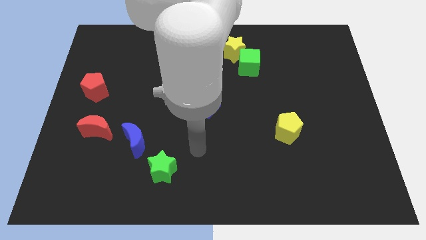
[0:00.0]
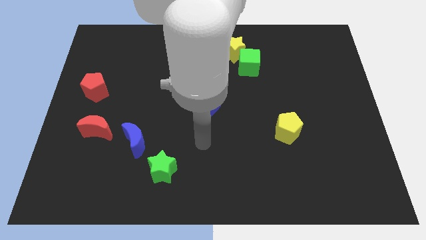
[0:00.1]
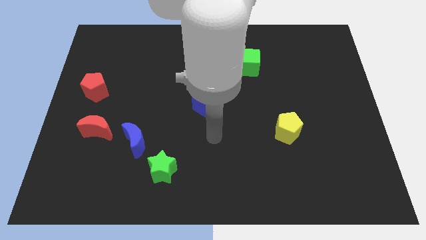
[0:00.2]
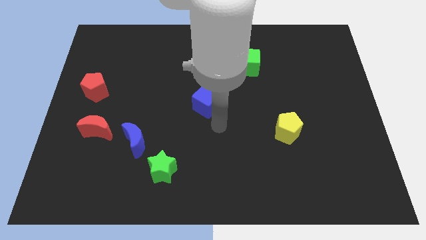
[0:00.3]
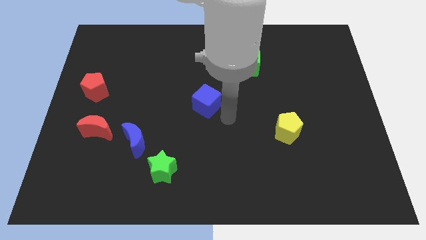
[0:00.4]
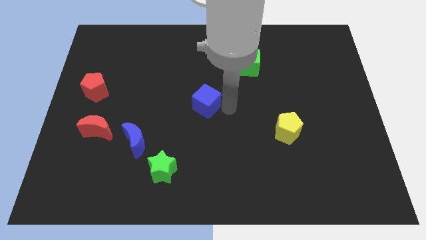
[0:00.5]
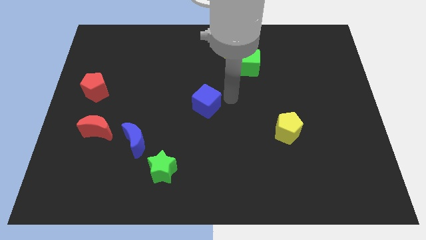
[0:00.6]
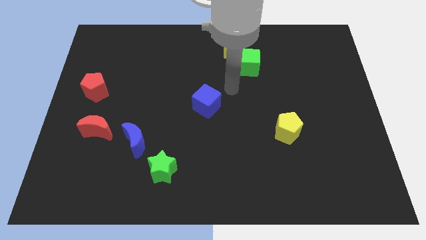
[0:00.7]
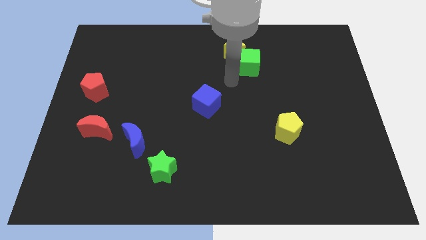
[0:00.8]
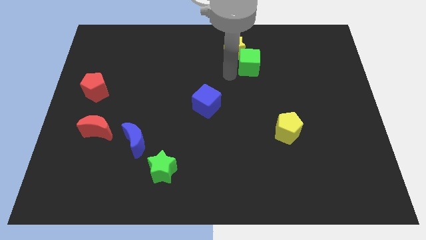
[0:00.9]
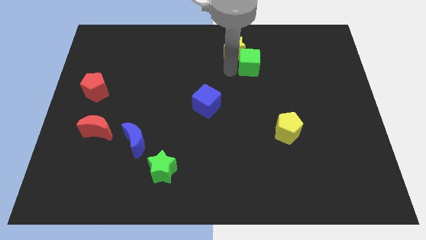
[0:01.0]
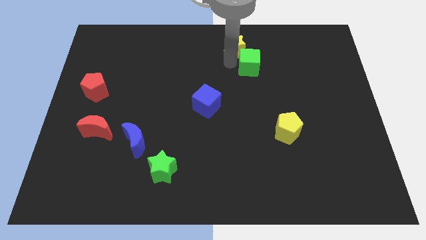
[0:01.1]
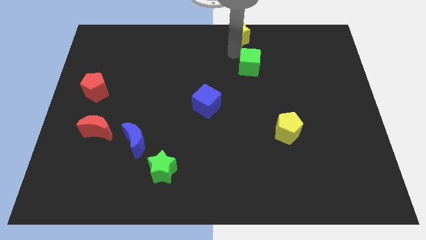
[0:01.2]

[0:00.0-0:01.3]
move the green cube away from the yellow star

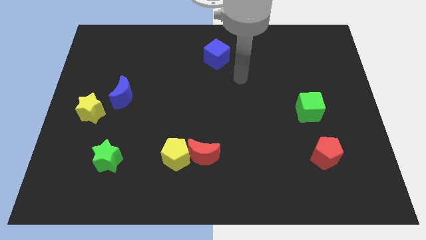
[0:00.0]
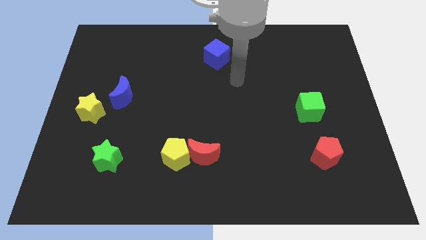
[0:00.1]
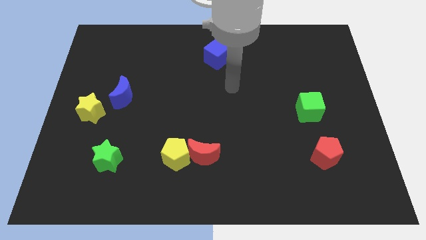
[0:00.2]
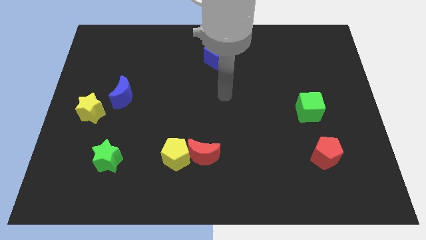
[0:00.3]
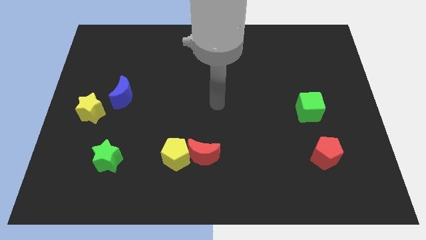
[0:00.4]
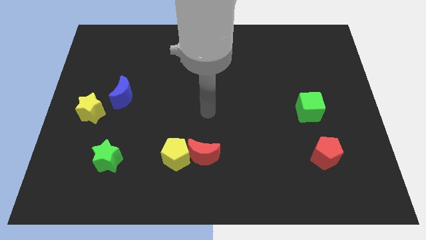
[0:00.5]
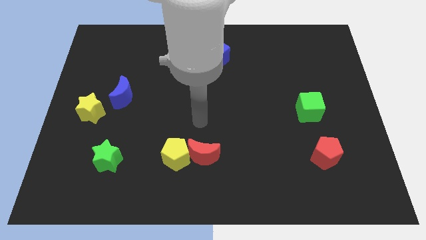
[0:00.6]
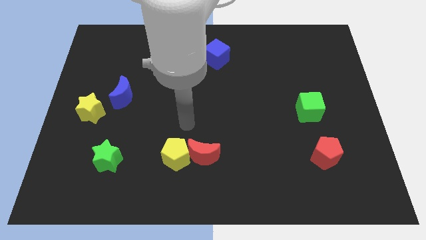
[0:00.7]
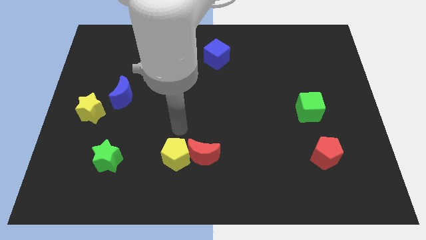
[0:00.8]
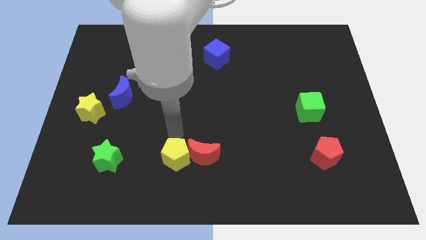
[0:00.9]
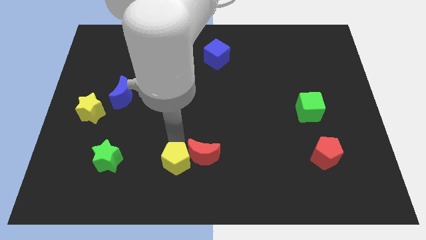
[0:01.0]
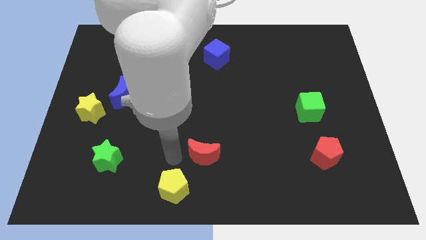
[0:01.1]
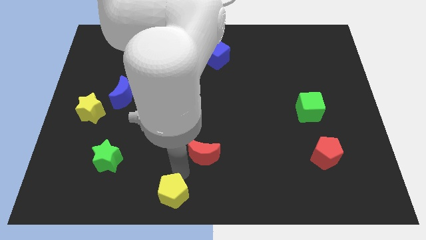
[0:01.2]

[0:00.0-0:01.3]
separate the red moon from the yellow pentagon

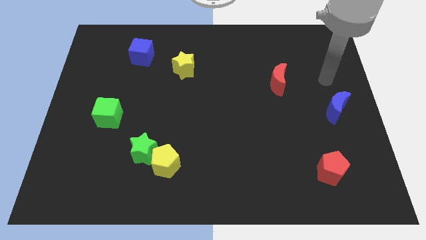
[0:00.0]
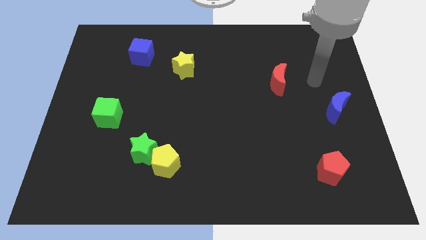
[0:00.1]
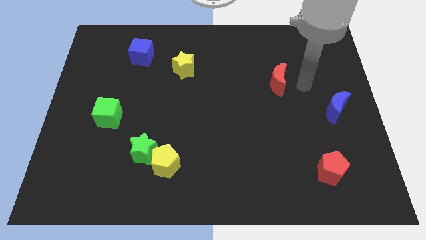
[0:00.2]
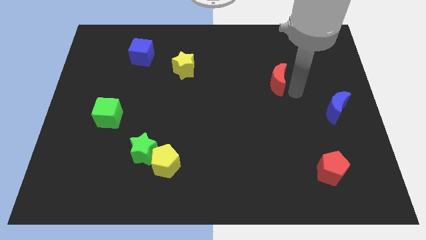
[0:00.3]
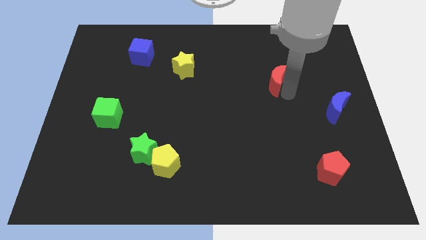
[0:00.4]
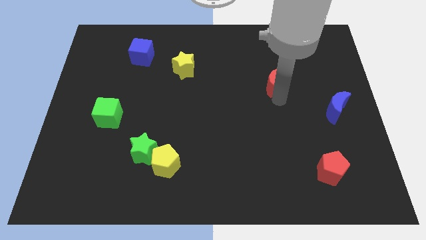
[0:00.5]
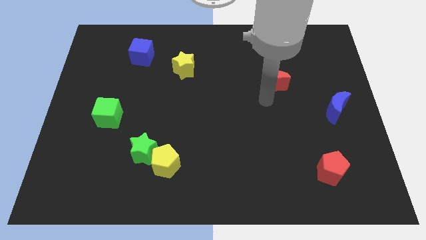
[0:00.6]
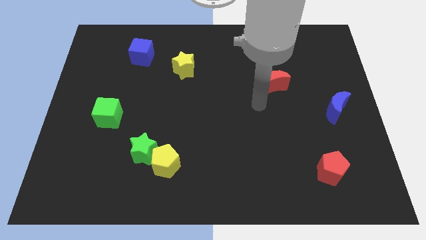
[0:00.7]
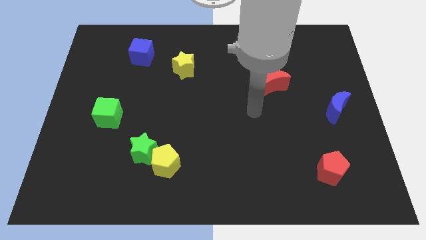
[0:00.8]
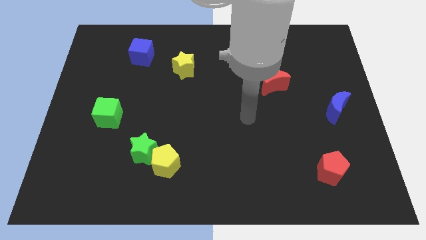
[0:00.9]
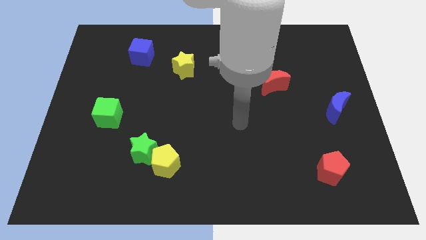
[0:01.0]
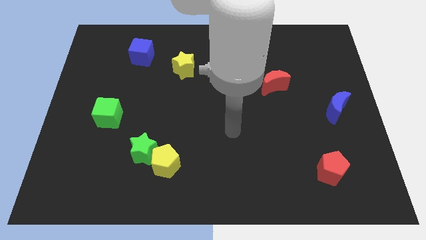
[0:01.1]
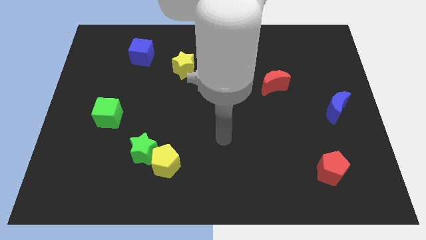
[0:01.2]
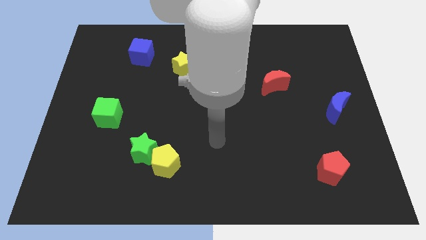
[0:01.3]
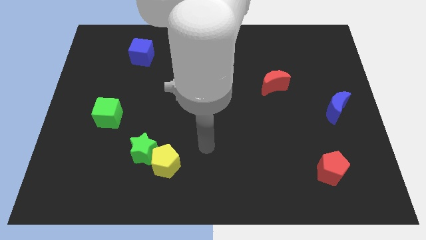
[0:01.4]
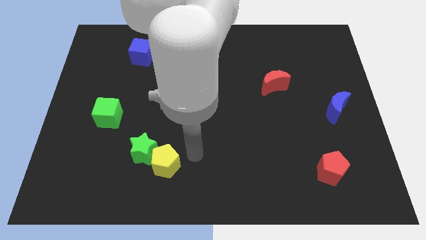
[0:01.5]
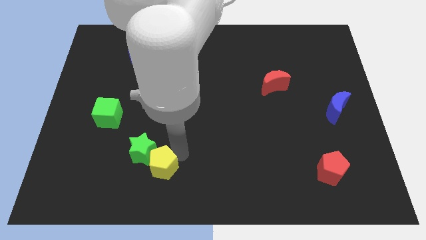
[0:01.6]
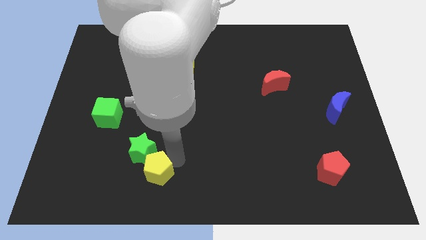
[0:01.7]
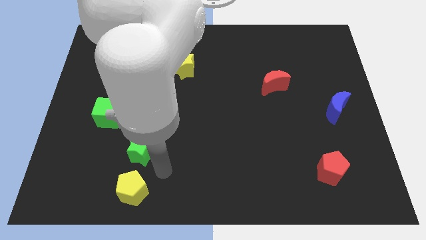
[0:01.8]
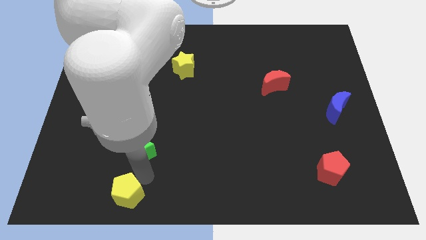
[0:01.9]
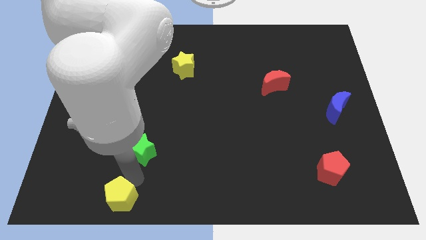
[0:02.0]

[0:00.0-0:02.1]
move the green star away from the yellow pentagon

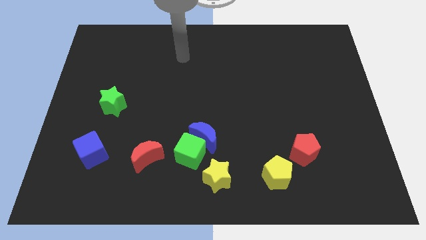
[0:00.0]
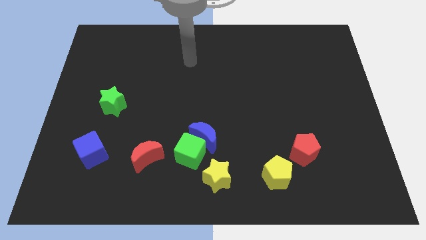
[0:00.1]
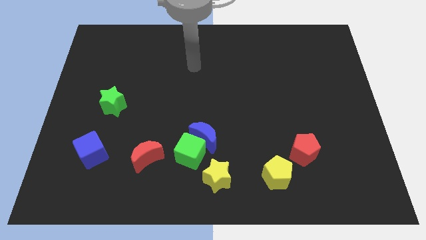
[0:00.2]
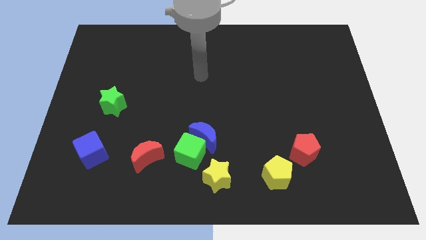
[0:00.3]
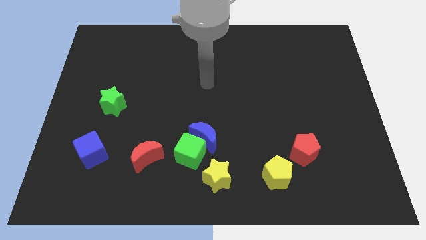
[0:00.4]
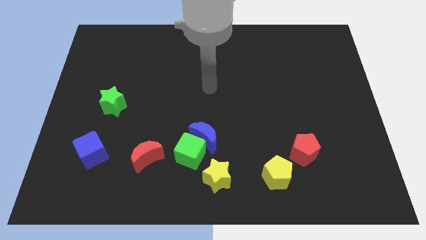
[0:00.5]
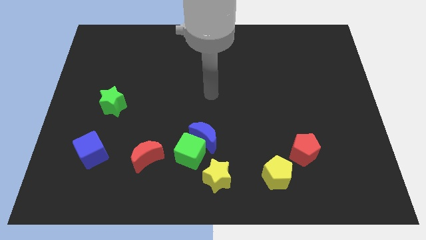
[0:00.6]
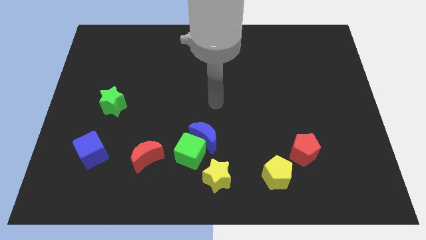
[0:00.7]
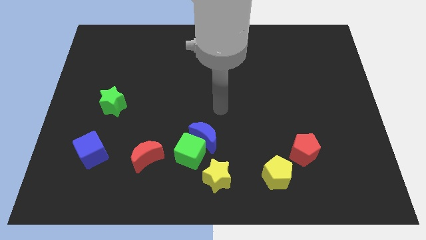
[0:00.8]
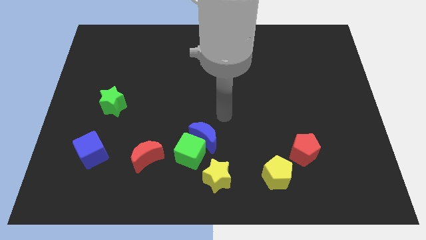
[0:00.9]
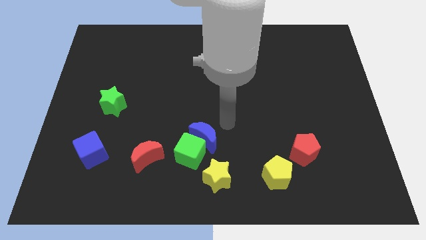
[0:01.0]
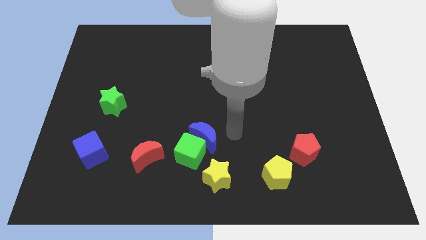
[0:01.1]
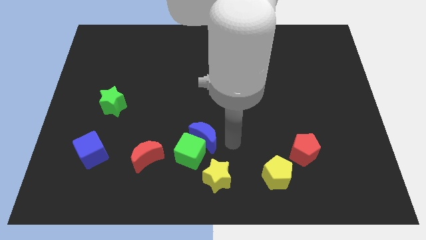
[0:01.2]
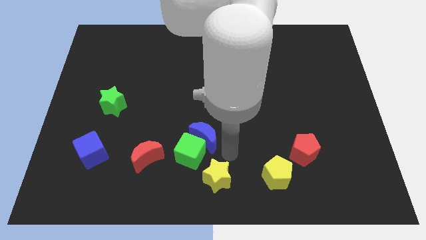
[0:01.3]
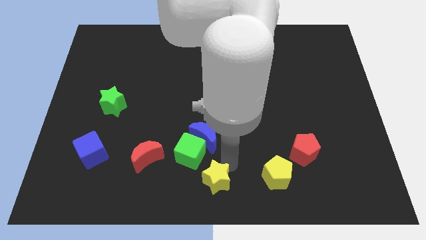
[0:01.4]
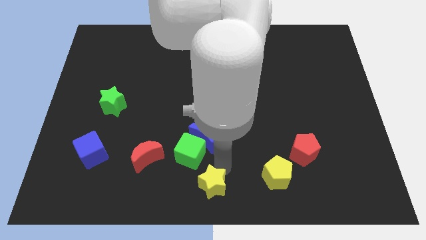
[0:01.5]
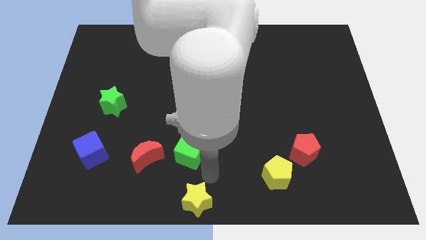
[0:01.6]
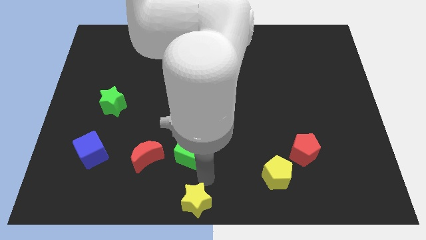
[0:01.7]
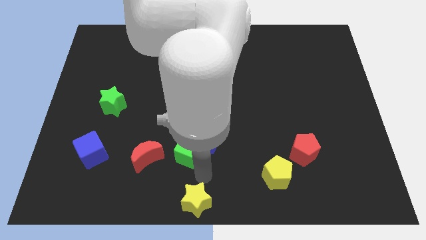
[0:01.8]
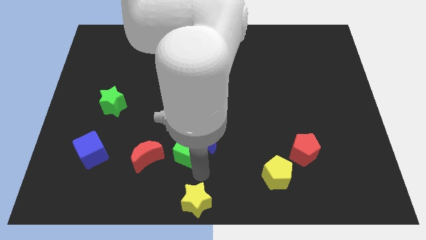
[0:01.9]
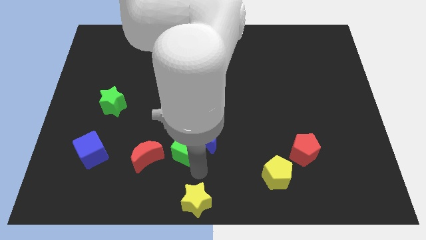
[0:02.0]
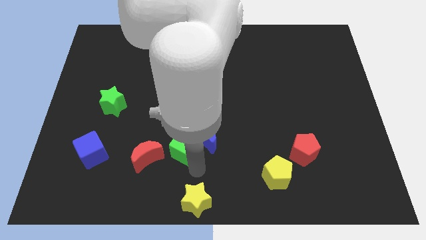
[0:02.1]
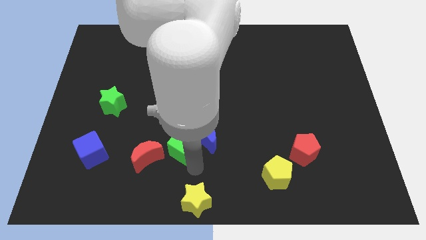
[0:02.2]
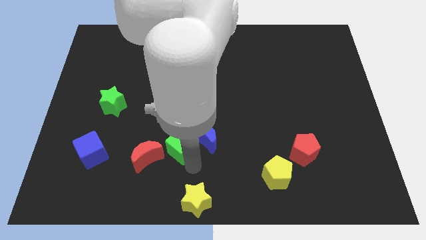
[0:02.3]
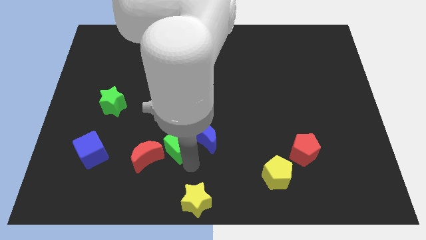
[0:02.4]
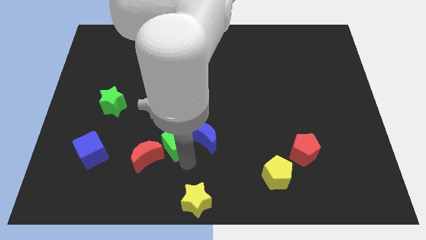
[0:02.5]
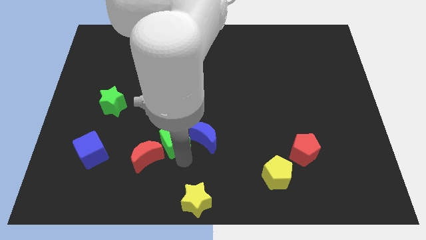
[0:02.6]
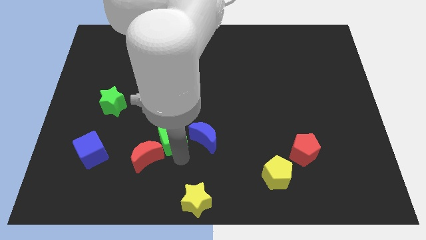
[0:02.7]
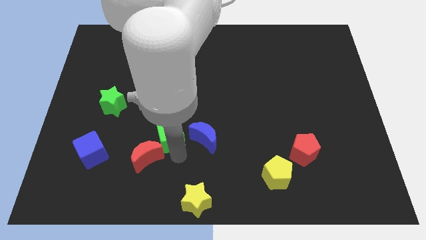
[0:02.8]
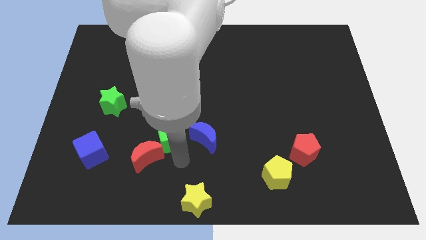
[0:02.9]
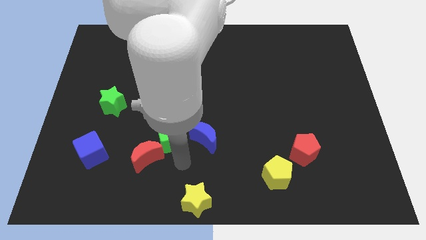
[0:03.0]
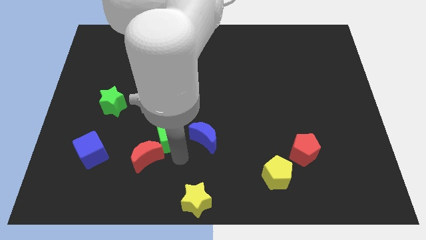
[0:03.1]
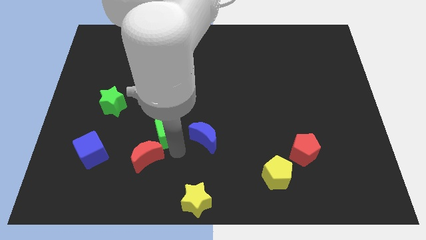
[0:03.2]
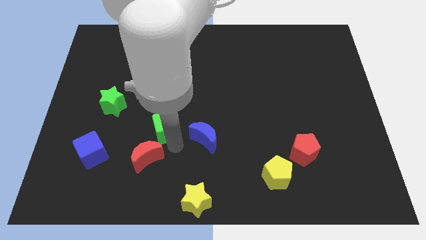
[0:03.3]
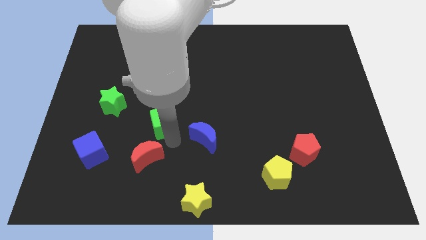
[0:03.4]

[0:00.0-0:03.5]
move the green cube away from the group

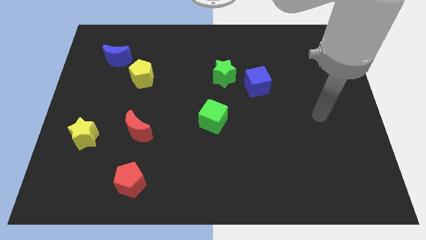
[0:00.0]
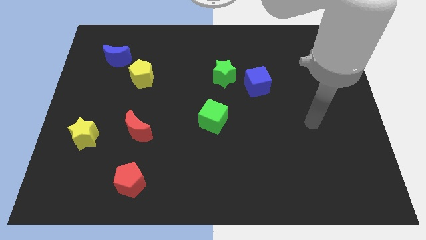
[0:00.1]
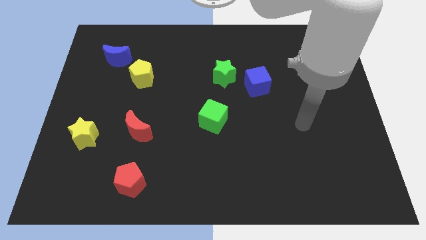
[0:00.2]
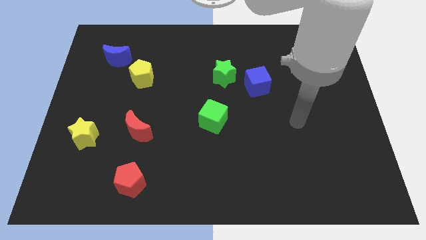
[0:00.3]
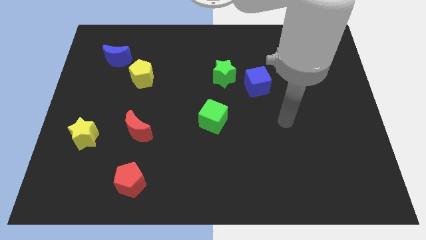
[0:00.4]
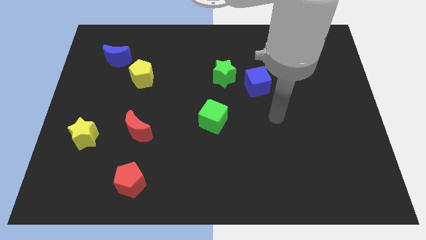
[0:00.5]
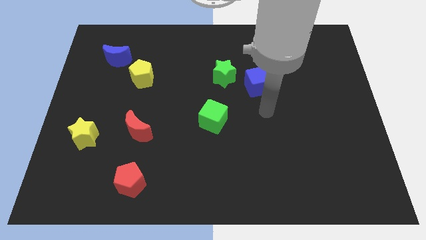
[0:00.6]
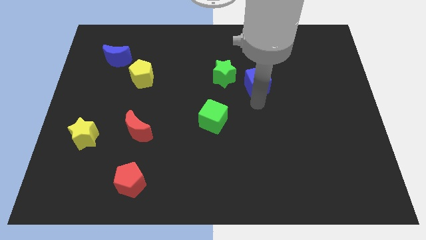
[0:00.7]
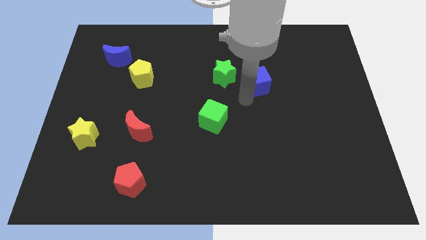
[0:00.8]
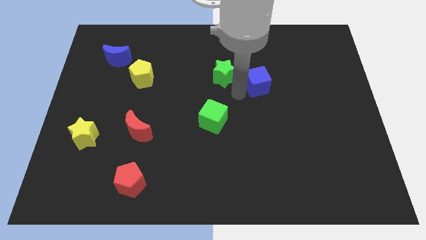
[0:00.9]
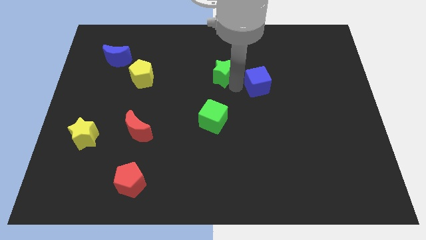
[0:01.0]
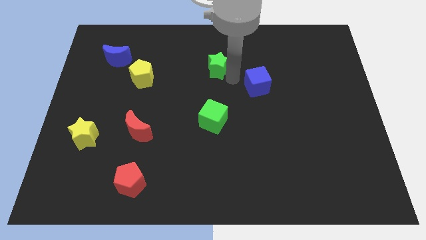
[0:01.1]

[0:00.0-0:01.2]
move the blue cube away from the green star
